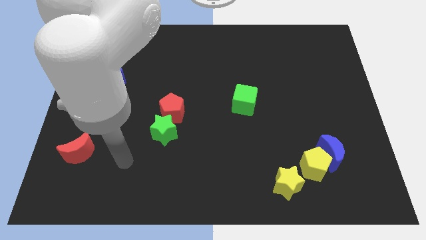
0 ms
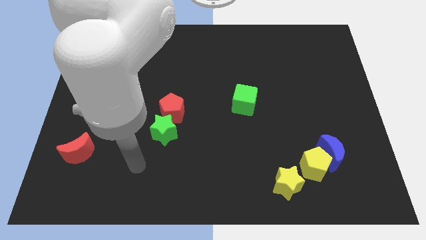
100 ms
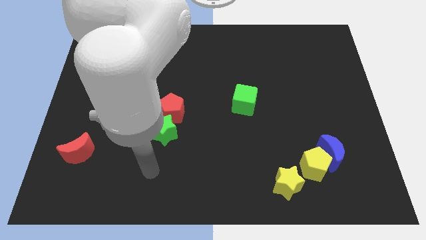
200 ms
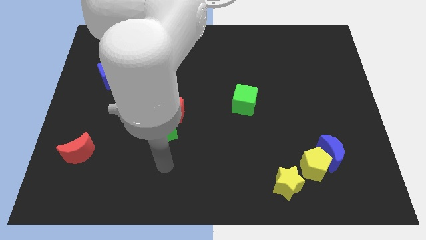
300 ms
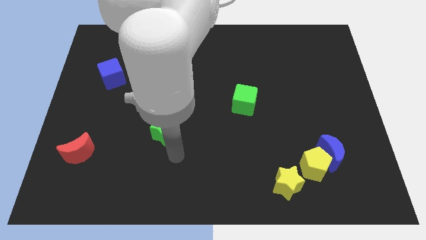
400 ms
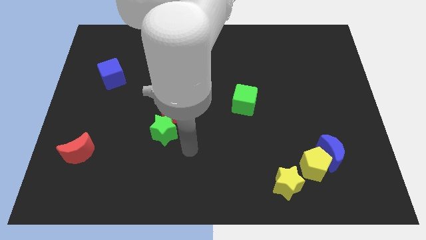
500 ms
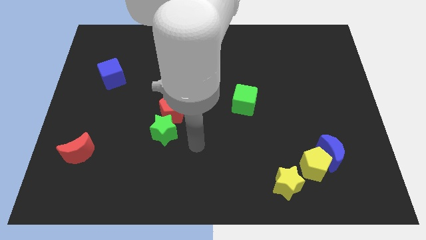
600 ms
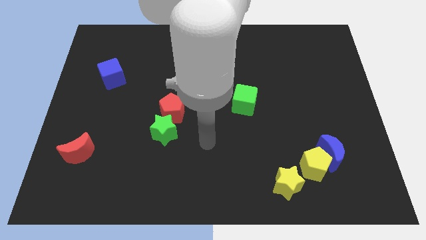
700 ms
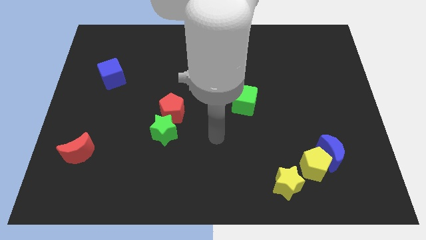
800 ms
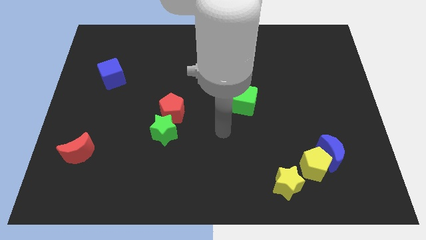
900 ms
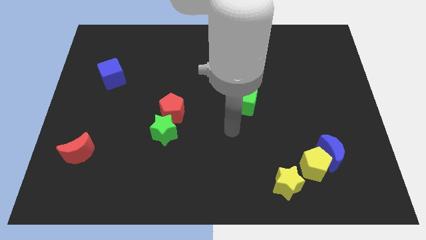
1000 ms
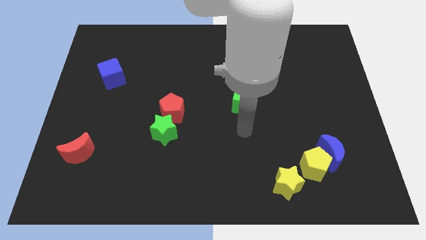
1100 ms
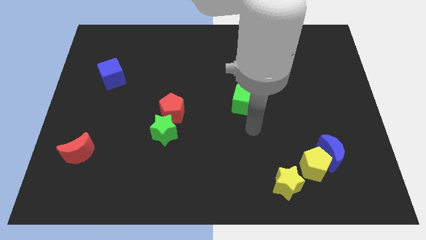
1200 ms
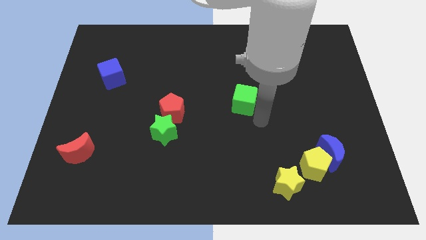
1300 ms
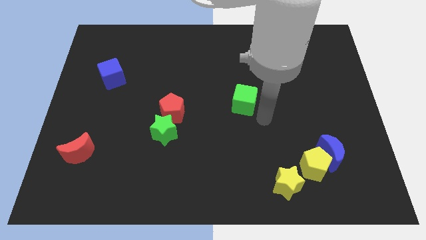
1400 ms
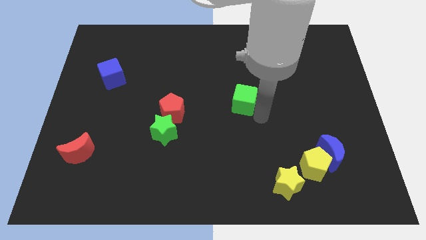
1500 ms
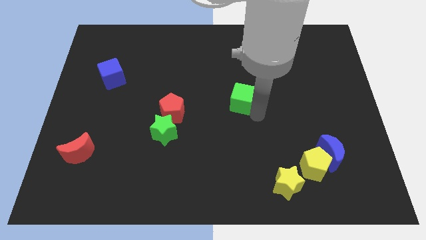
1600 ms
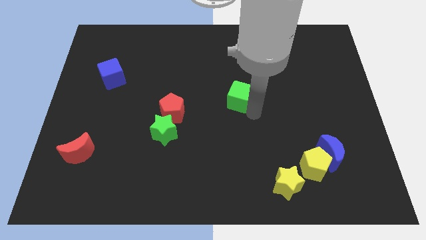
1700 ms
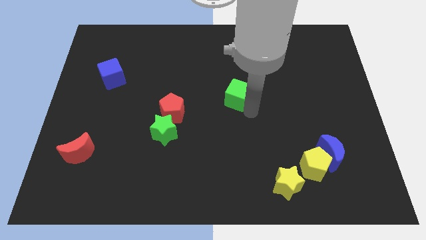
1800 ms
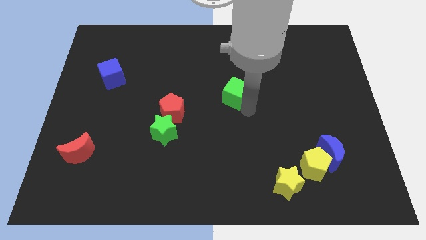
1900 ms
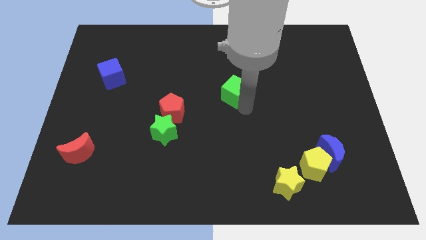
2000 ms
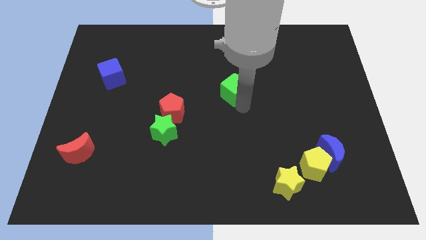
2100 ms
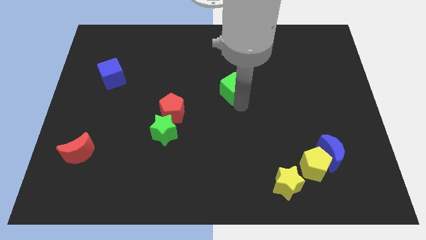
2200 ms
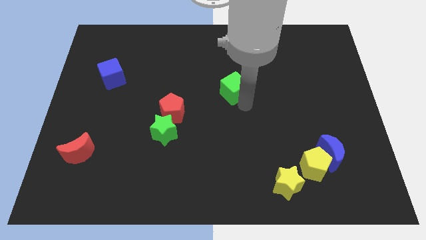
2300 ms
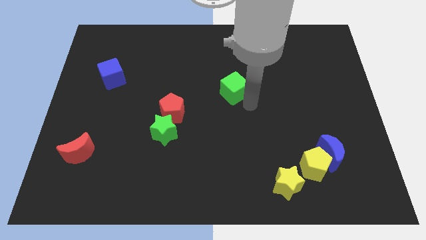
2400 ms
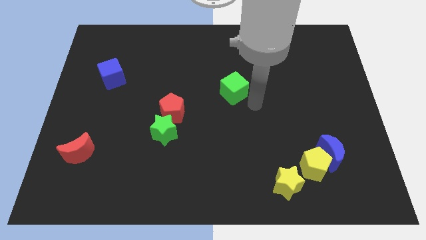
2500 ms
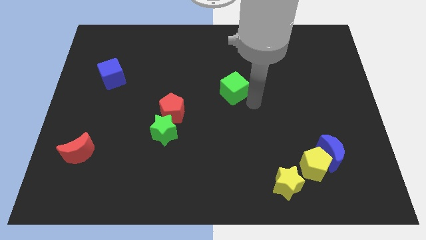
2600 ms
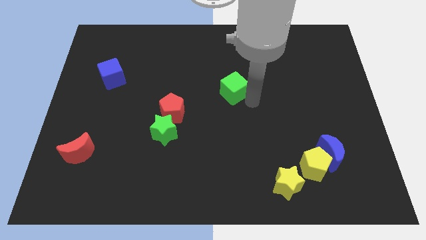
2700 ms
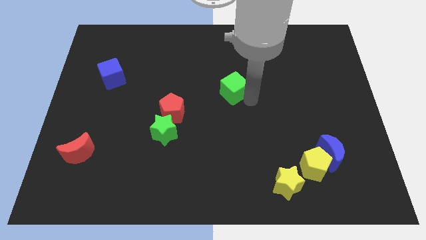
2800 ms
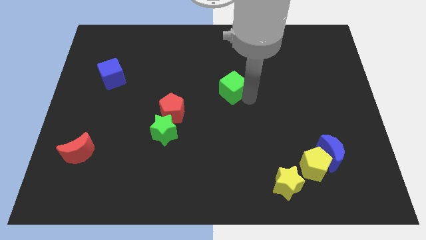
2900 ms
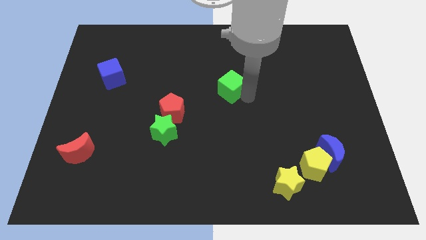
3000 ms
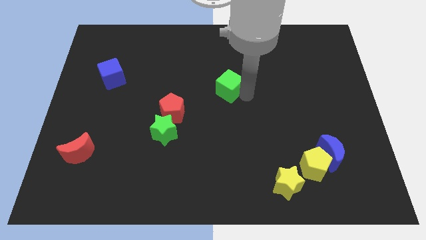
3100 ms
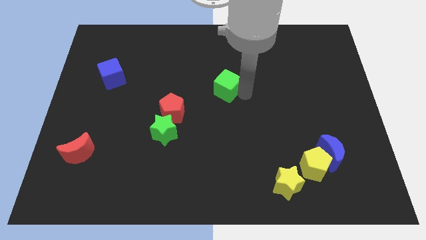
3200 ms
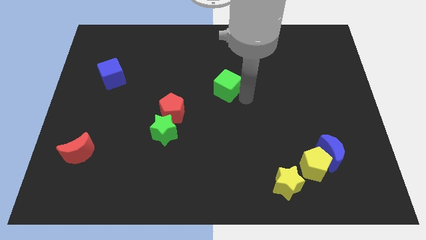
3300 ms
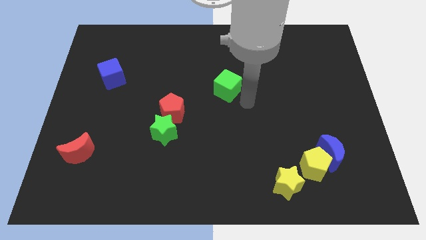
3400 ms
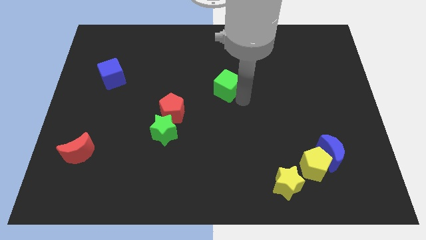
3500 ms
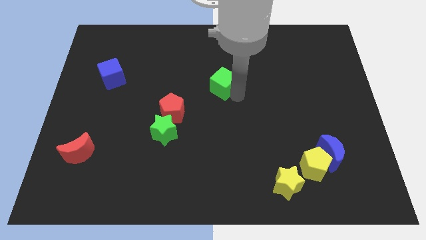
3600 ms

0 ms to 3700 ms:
push the green cube diagonally up and left a little

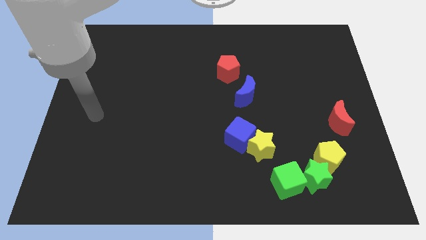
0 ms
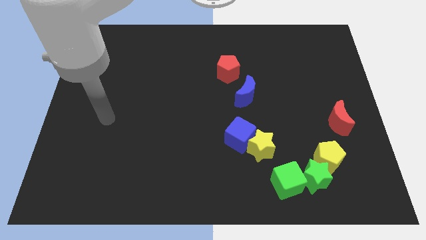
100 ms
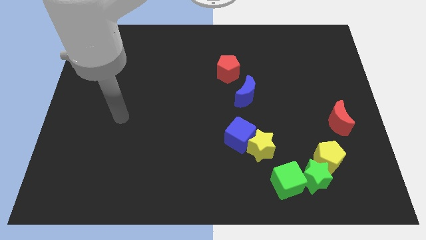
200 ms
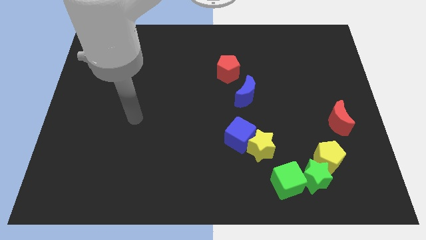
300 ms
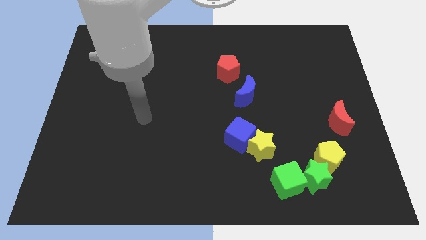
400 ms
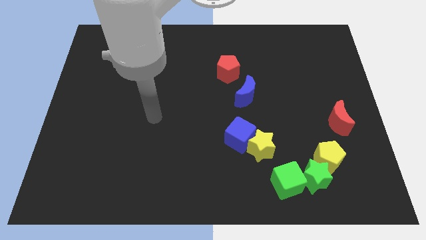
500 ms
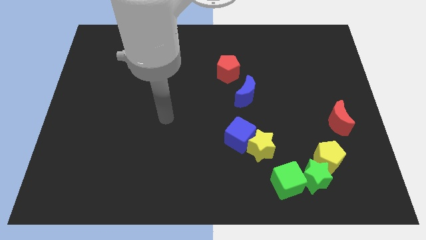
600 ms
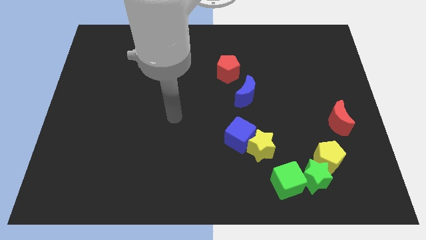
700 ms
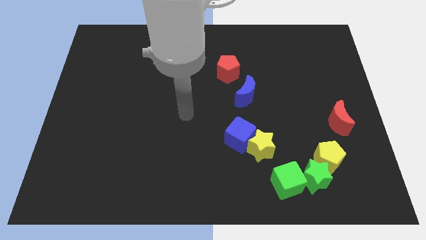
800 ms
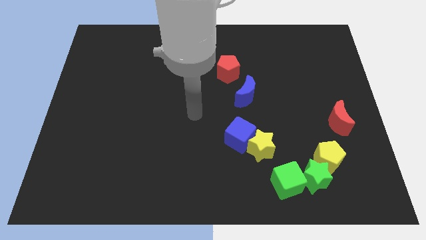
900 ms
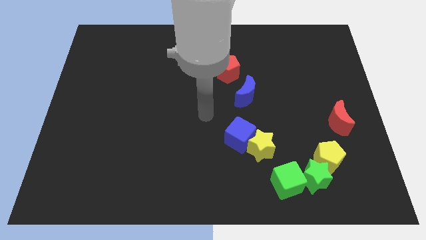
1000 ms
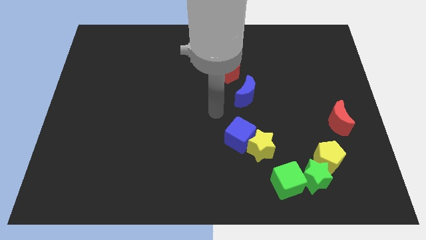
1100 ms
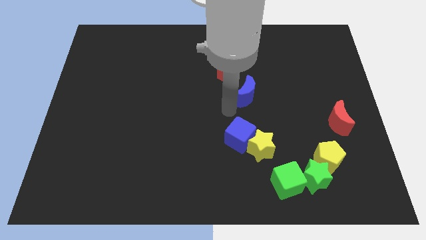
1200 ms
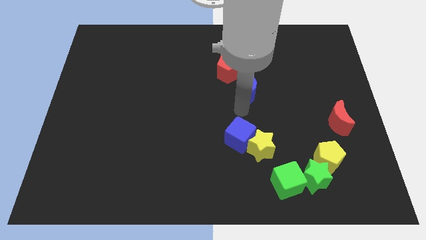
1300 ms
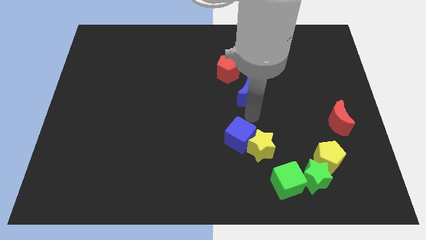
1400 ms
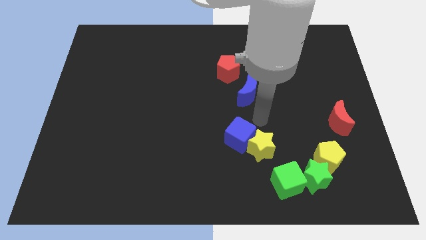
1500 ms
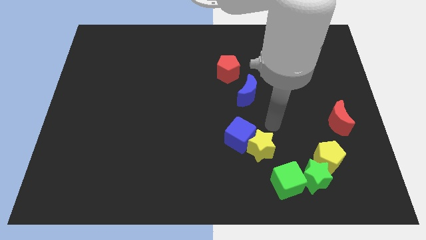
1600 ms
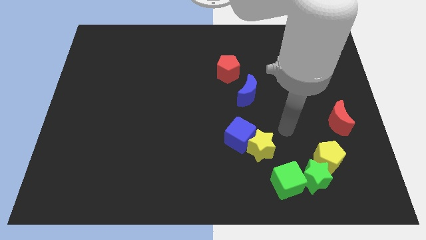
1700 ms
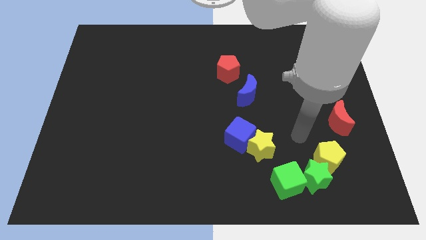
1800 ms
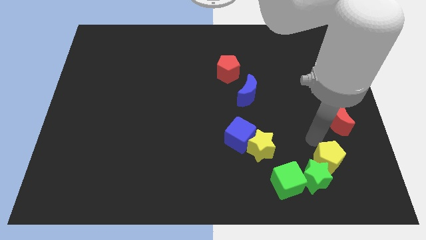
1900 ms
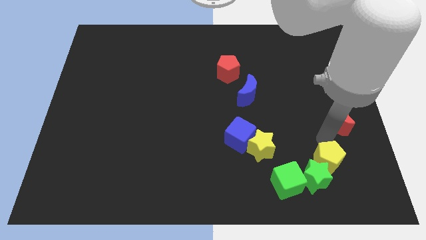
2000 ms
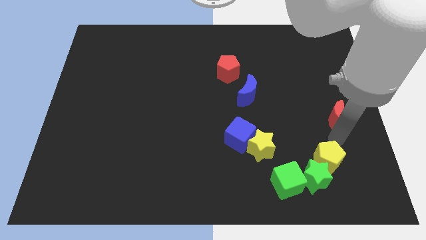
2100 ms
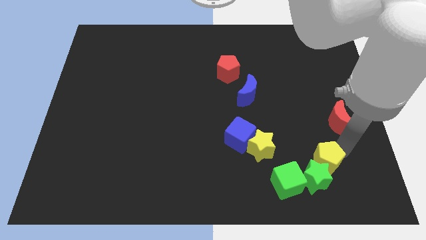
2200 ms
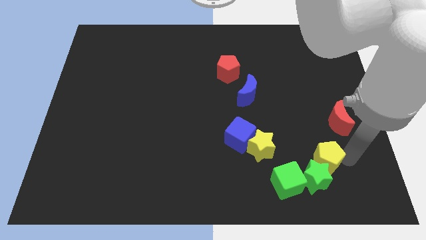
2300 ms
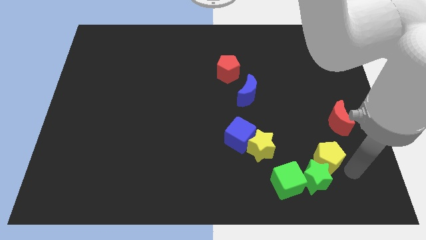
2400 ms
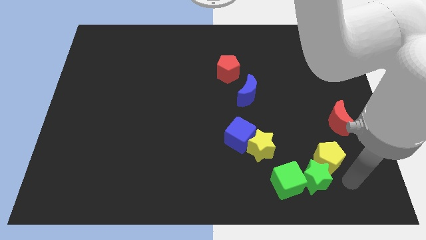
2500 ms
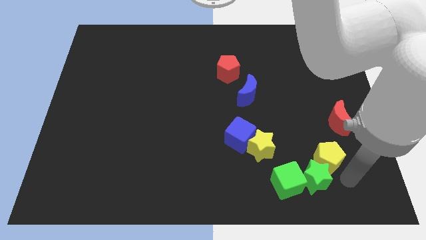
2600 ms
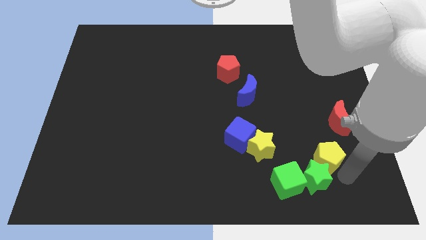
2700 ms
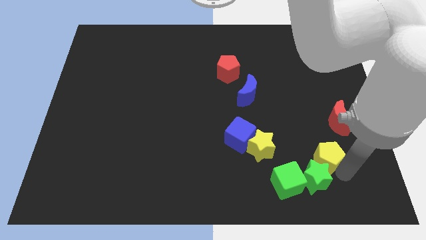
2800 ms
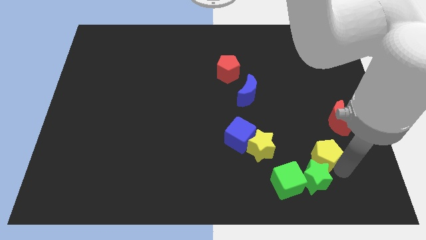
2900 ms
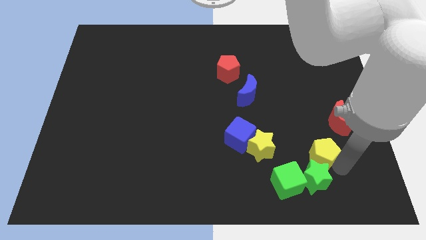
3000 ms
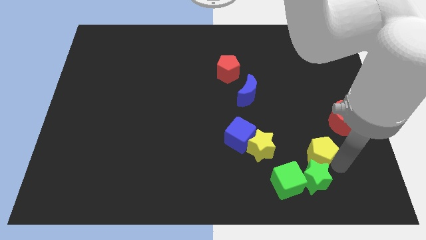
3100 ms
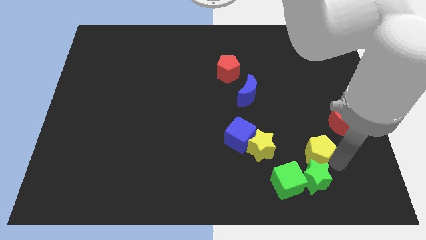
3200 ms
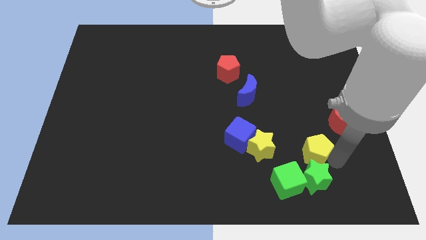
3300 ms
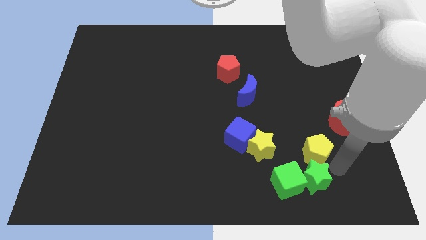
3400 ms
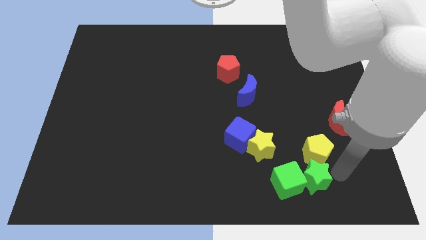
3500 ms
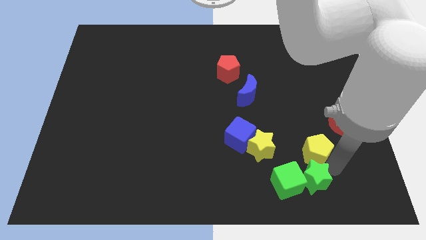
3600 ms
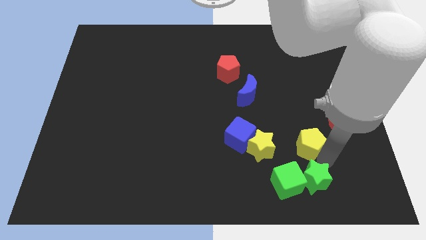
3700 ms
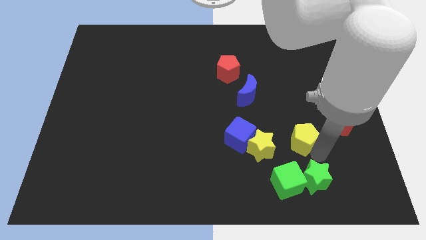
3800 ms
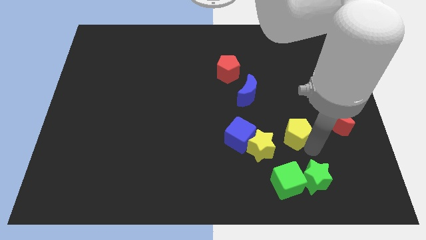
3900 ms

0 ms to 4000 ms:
slide the yellow pentagon up and left diagonally a little

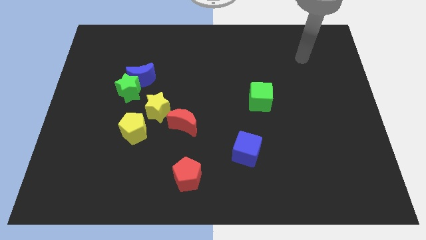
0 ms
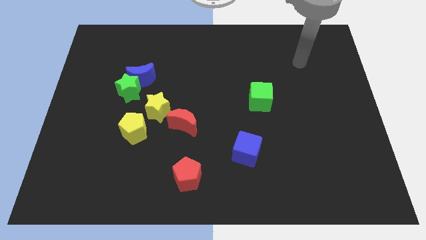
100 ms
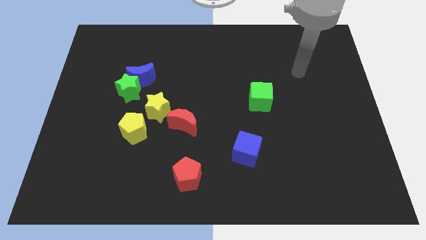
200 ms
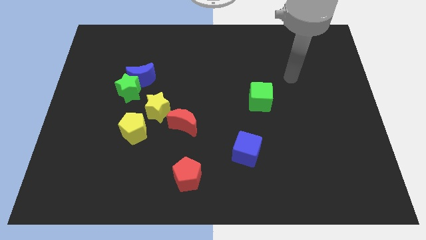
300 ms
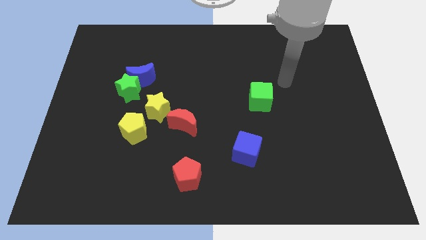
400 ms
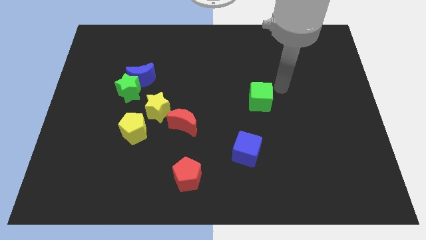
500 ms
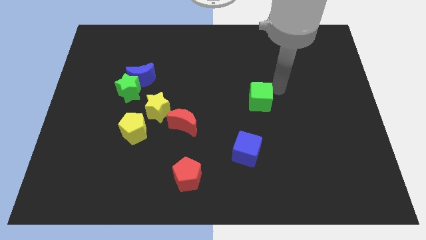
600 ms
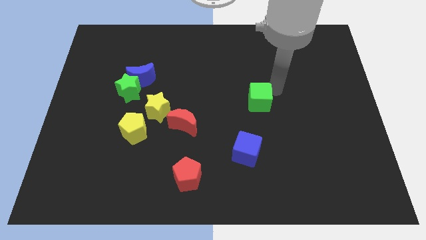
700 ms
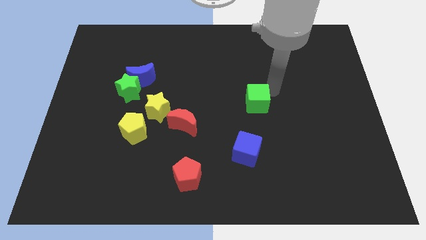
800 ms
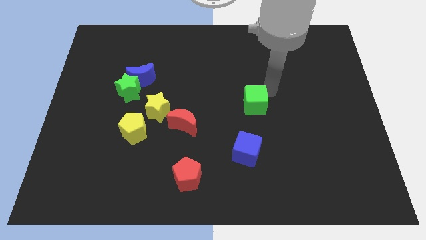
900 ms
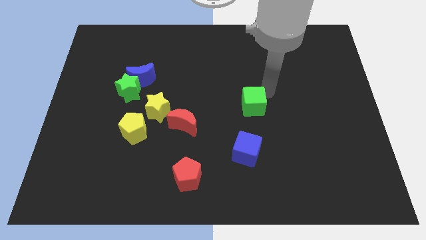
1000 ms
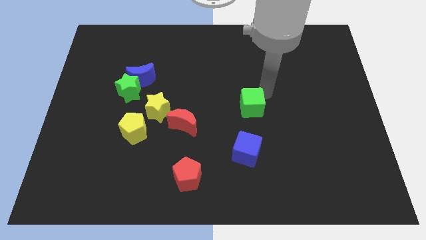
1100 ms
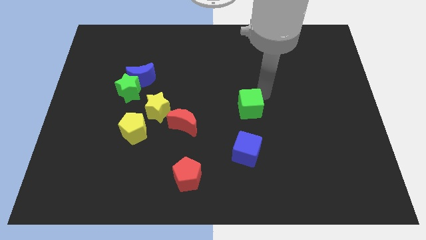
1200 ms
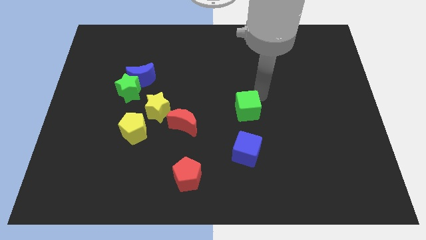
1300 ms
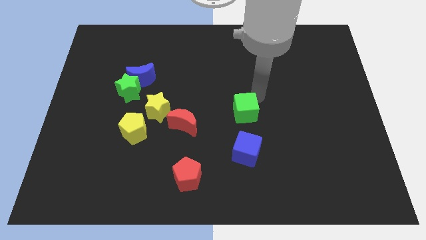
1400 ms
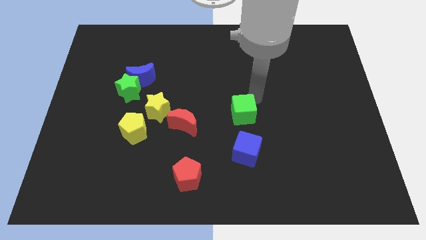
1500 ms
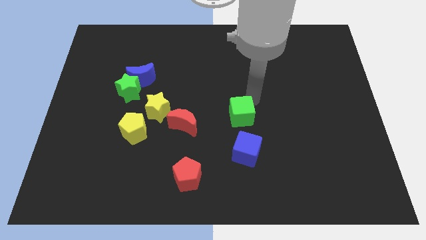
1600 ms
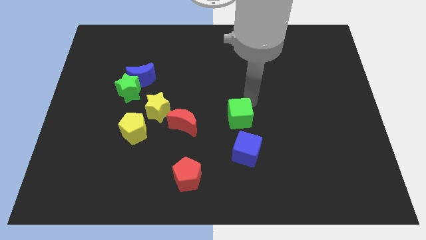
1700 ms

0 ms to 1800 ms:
slide the green cube down and left a bit
